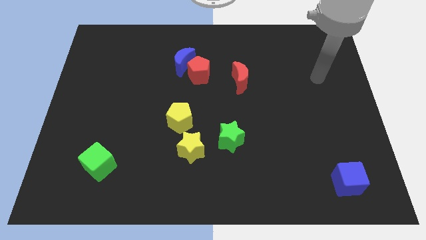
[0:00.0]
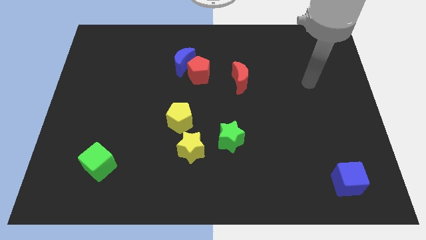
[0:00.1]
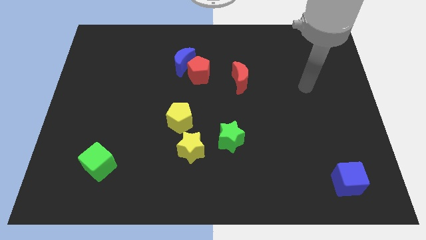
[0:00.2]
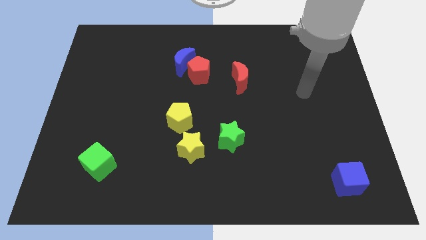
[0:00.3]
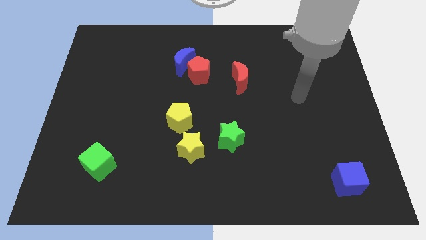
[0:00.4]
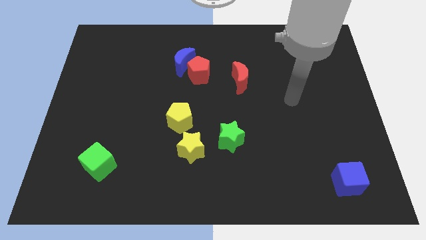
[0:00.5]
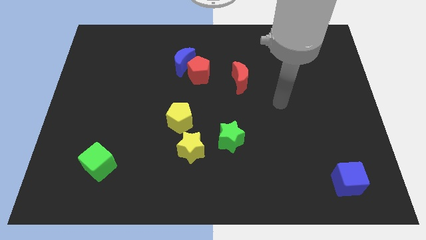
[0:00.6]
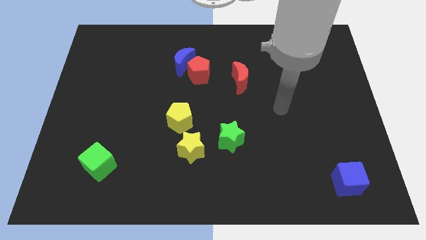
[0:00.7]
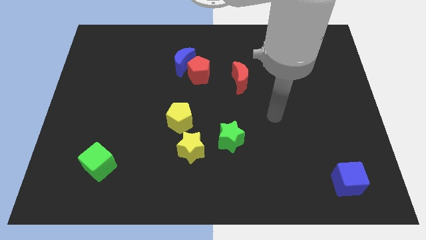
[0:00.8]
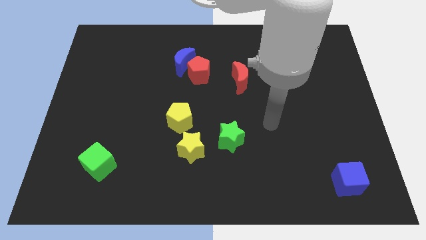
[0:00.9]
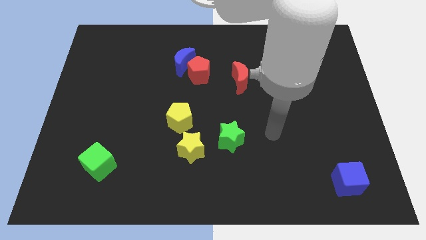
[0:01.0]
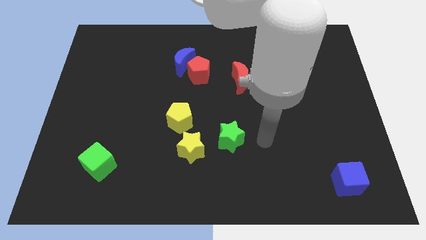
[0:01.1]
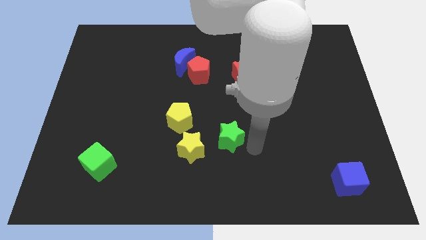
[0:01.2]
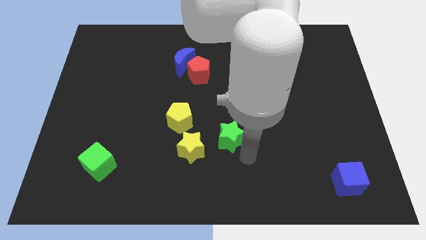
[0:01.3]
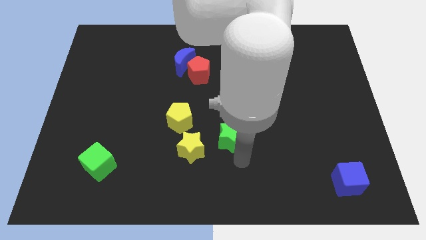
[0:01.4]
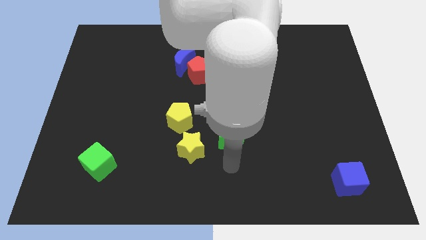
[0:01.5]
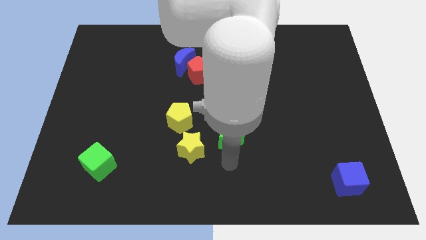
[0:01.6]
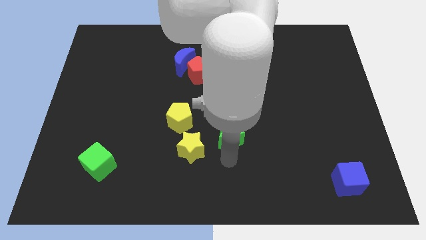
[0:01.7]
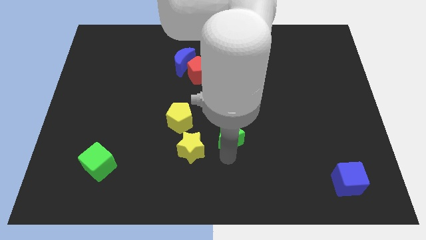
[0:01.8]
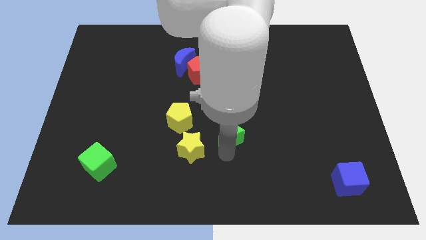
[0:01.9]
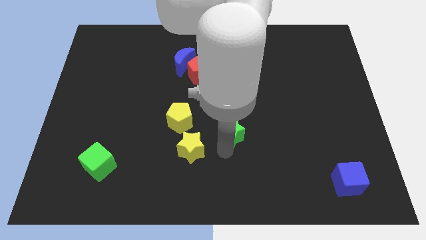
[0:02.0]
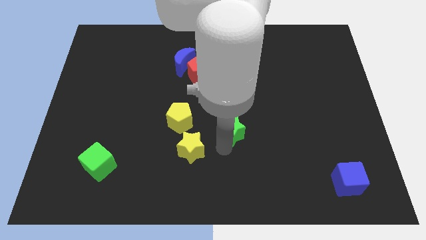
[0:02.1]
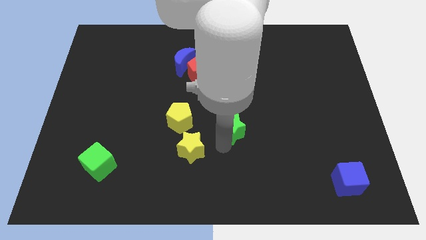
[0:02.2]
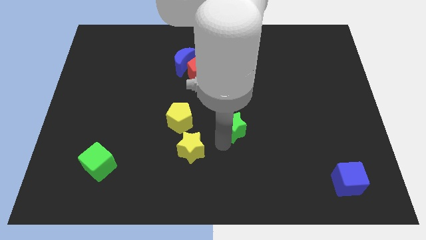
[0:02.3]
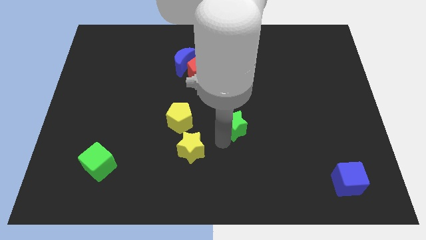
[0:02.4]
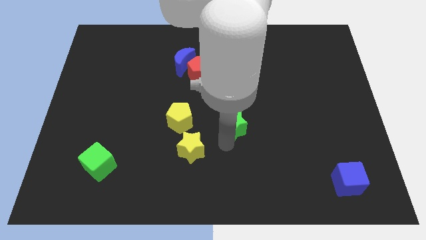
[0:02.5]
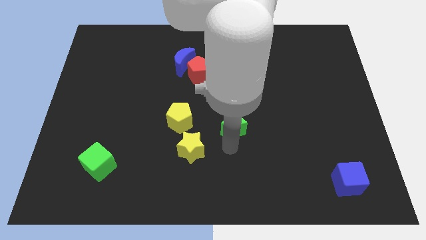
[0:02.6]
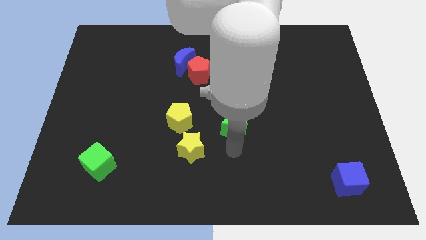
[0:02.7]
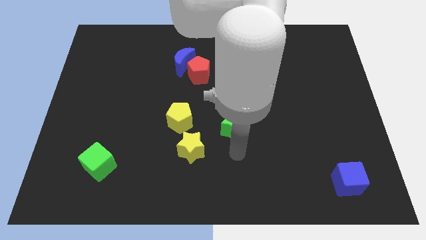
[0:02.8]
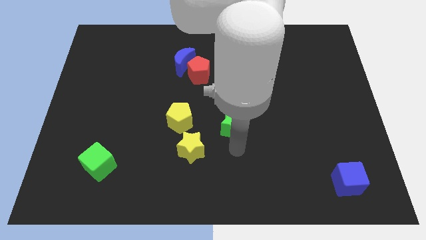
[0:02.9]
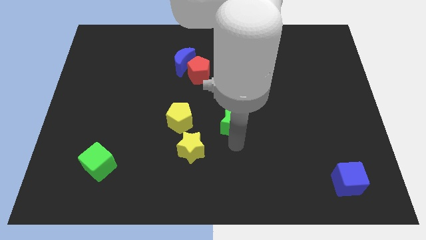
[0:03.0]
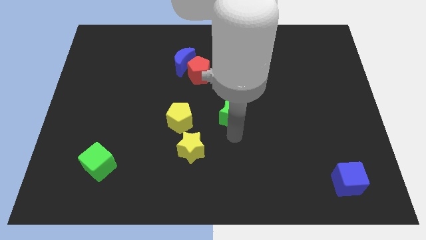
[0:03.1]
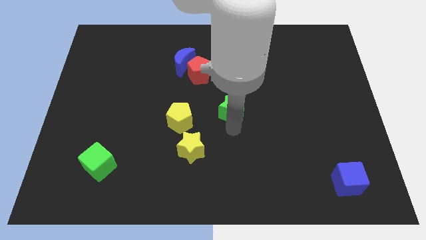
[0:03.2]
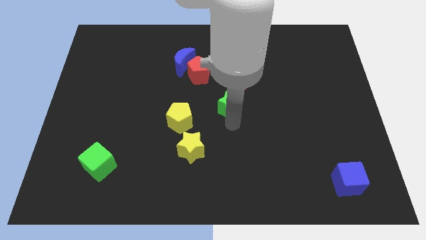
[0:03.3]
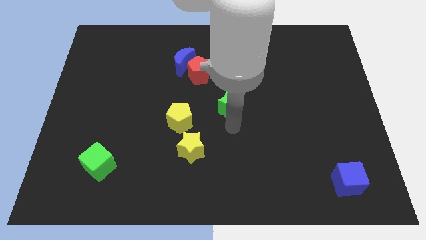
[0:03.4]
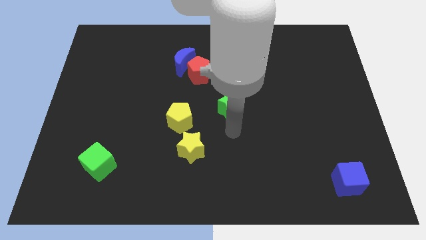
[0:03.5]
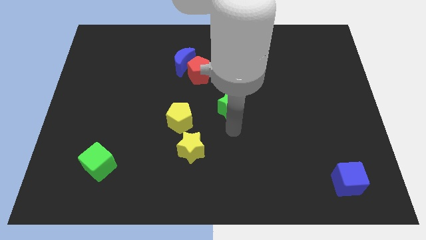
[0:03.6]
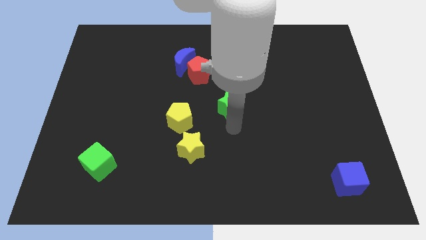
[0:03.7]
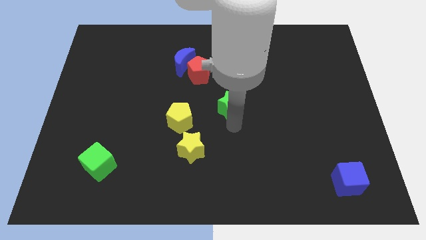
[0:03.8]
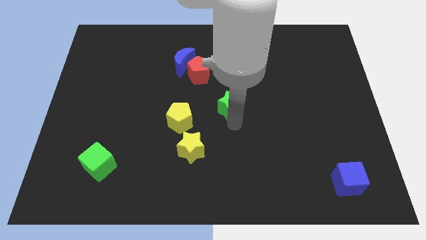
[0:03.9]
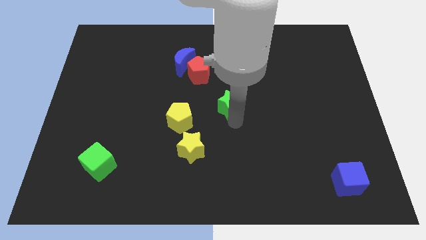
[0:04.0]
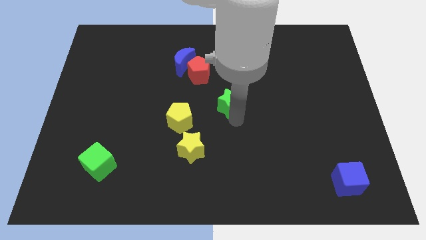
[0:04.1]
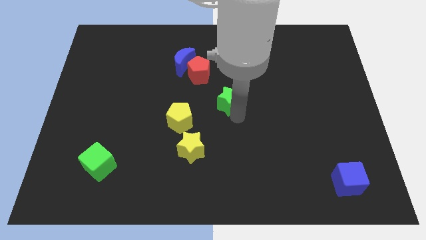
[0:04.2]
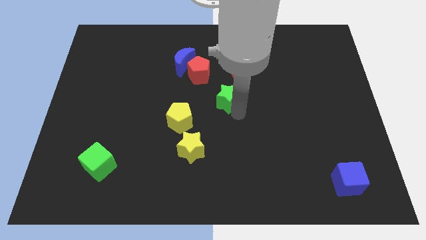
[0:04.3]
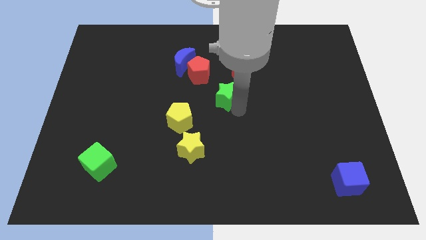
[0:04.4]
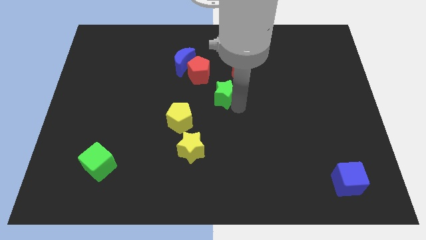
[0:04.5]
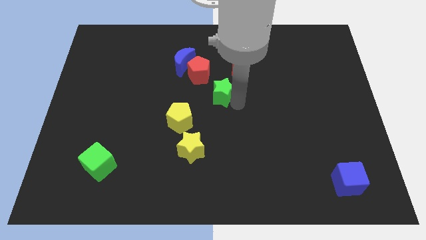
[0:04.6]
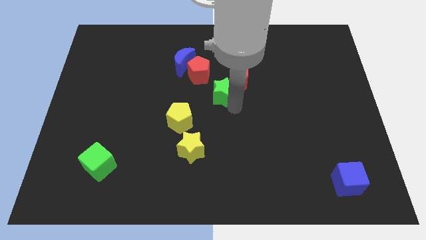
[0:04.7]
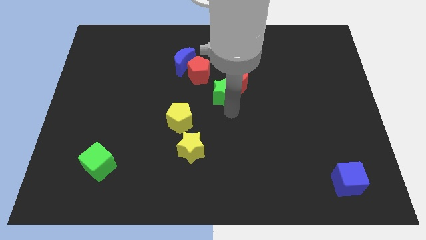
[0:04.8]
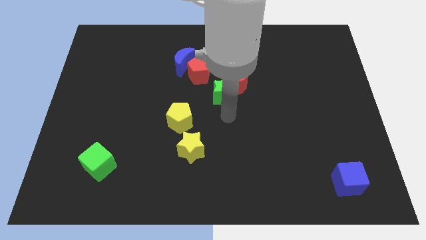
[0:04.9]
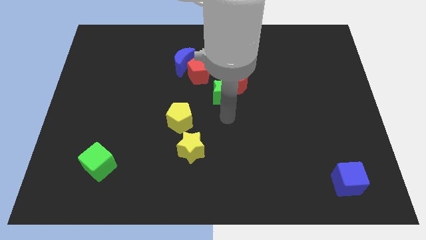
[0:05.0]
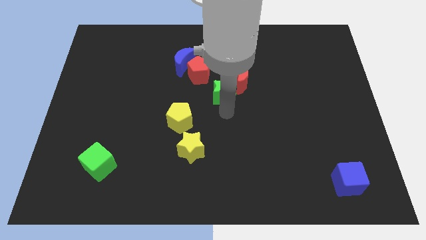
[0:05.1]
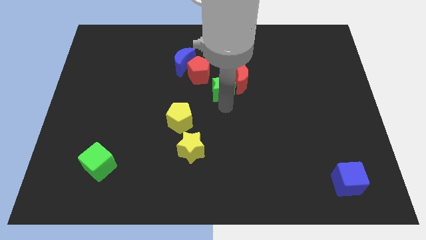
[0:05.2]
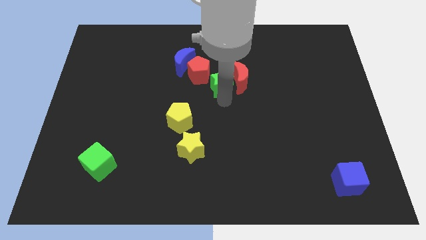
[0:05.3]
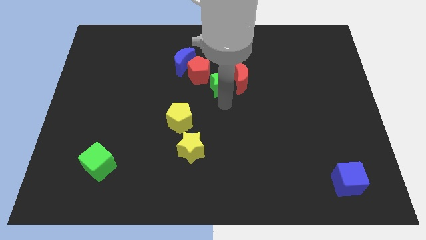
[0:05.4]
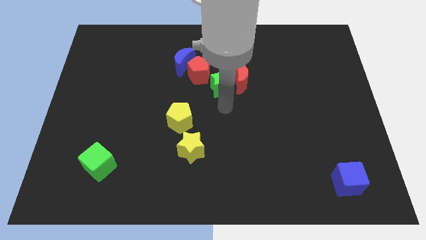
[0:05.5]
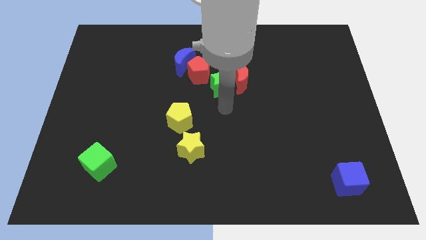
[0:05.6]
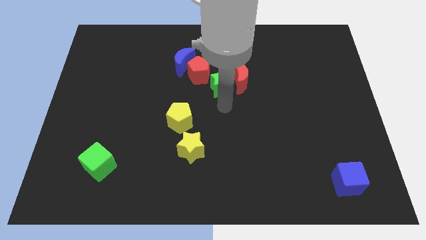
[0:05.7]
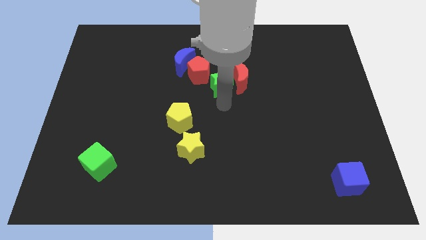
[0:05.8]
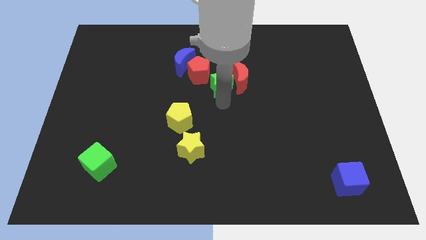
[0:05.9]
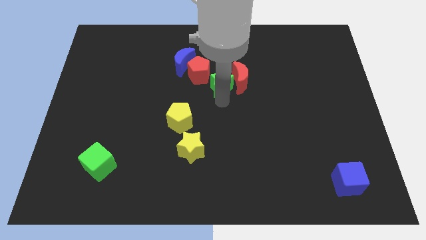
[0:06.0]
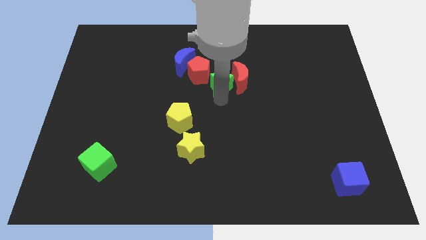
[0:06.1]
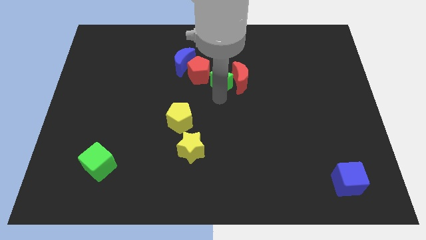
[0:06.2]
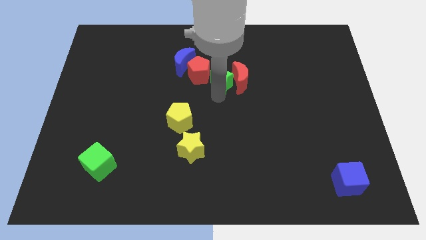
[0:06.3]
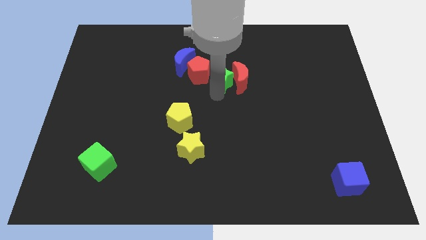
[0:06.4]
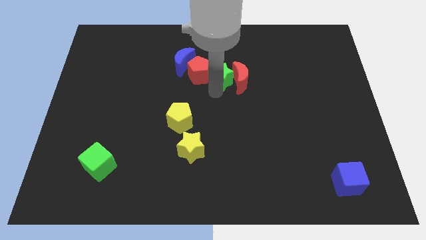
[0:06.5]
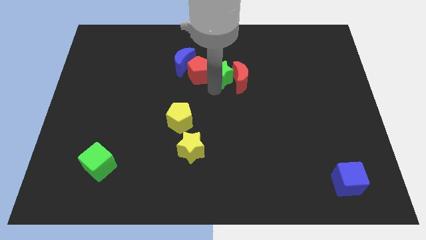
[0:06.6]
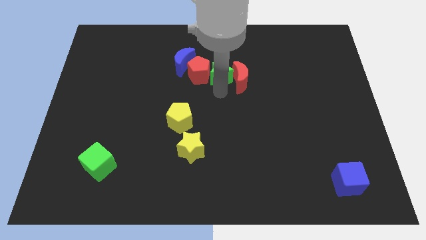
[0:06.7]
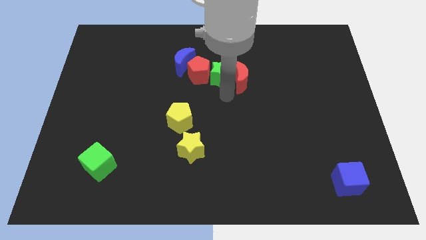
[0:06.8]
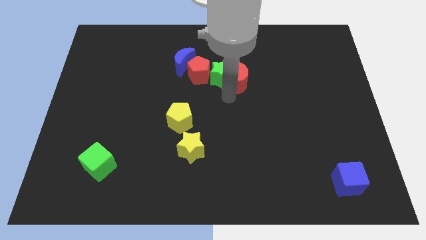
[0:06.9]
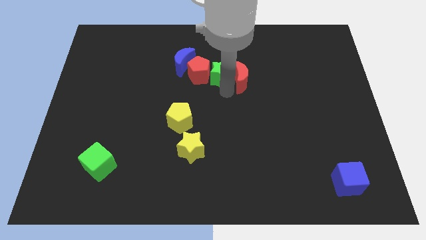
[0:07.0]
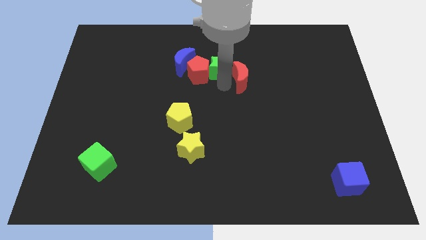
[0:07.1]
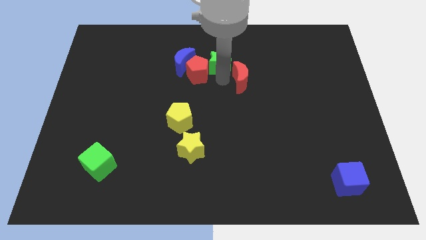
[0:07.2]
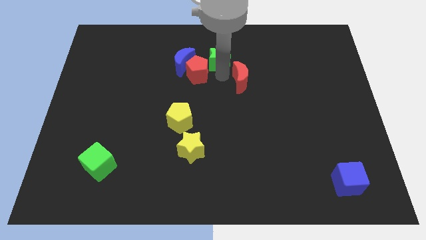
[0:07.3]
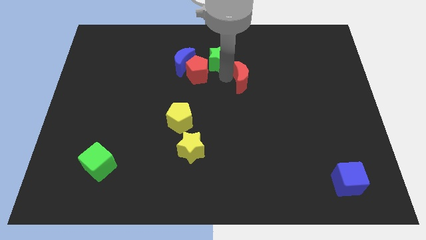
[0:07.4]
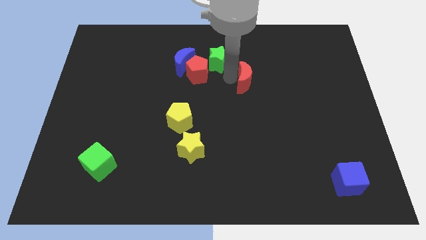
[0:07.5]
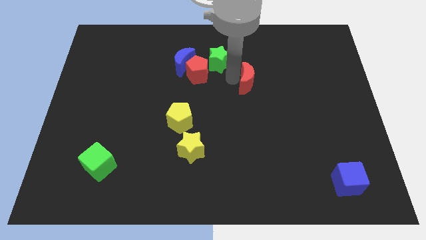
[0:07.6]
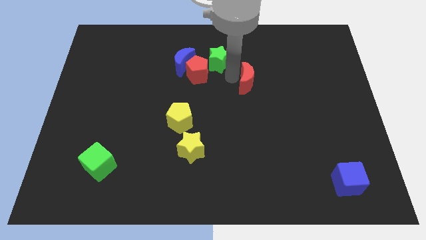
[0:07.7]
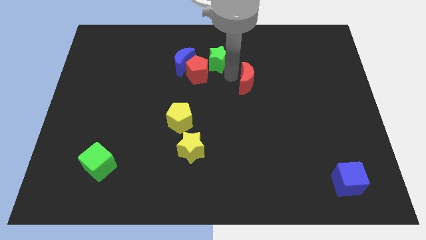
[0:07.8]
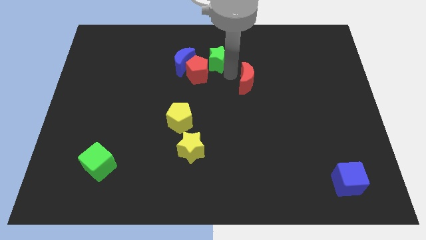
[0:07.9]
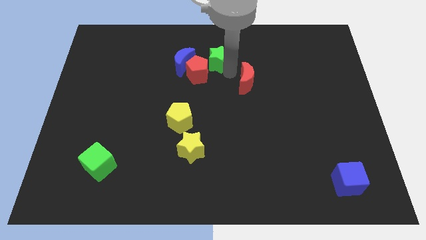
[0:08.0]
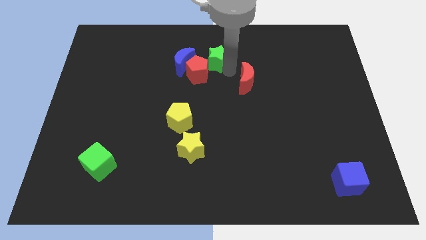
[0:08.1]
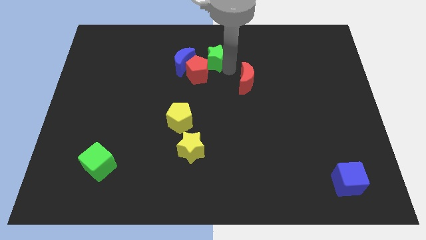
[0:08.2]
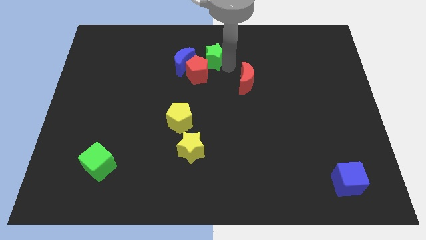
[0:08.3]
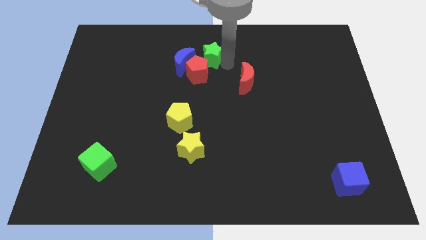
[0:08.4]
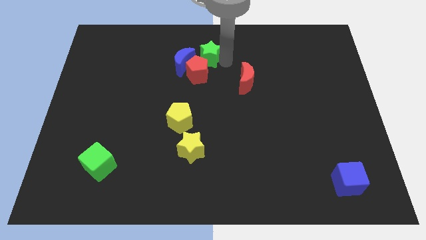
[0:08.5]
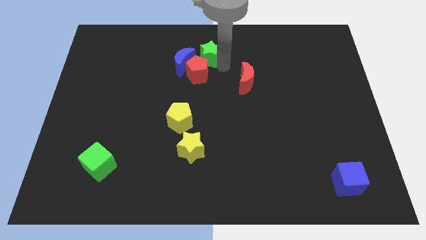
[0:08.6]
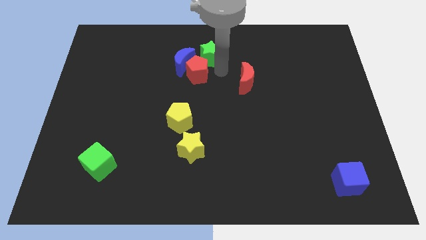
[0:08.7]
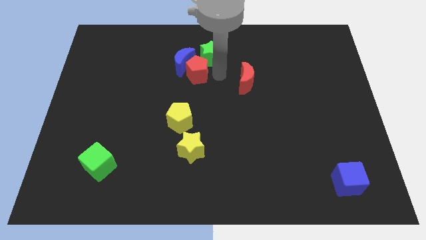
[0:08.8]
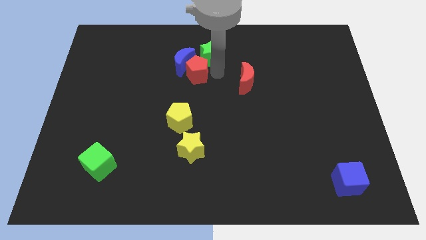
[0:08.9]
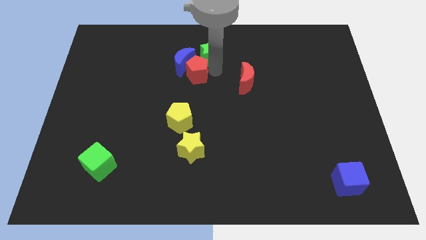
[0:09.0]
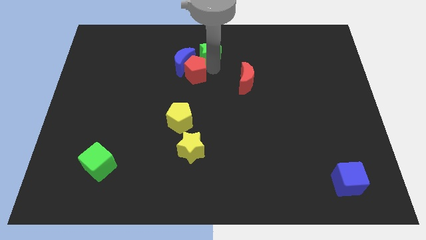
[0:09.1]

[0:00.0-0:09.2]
put the green star to the top
